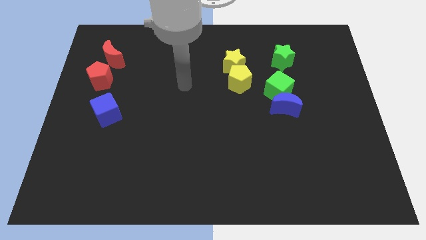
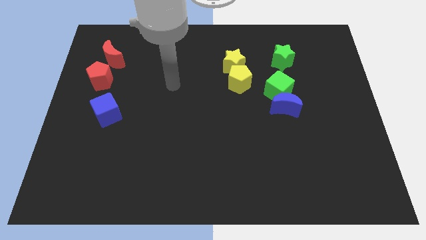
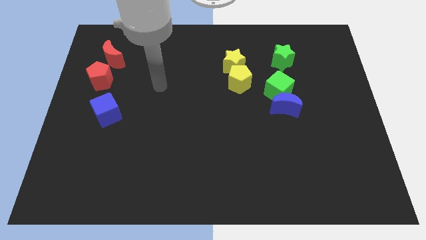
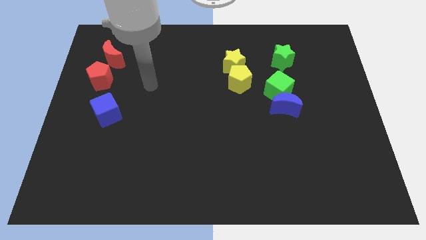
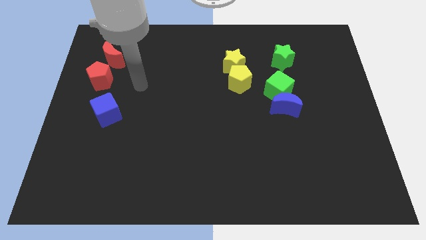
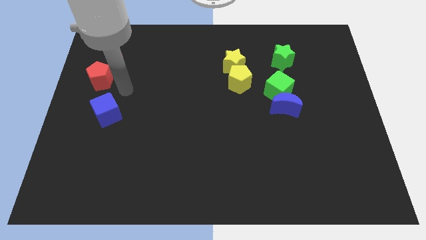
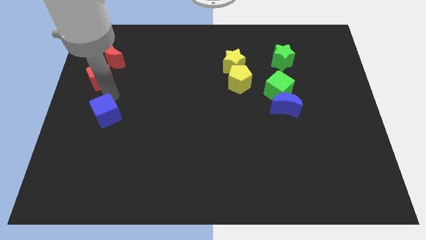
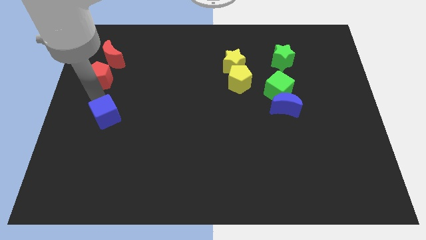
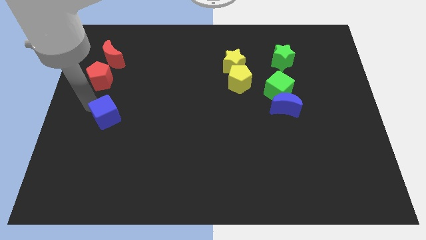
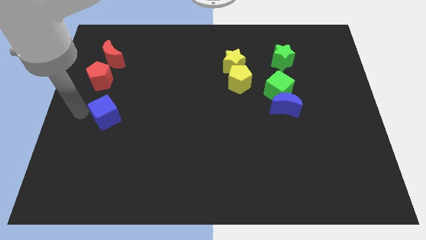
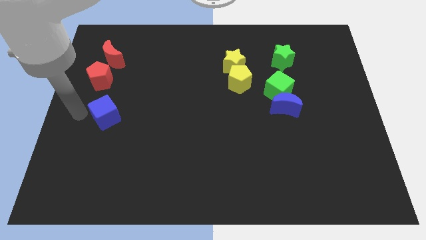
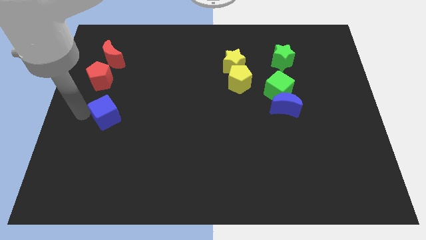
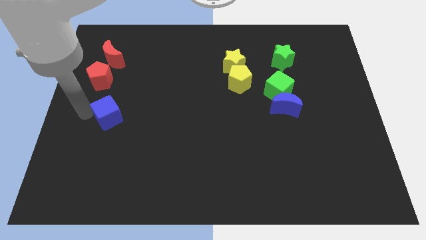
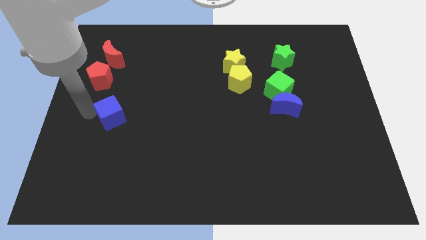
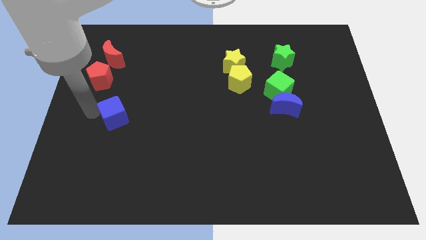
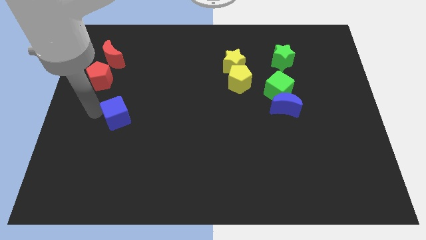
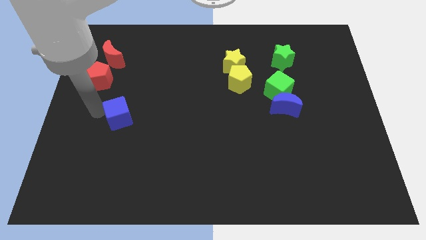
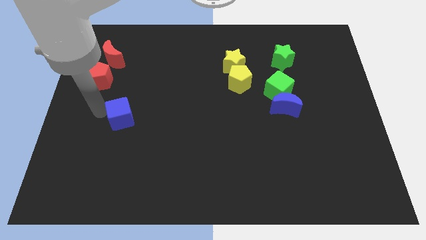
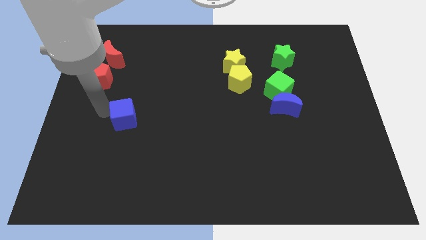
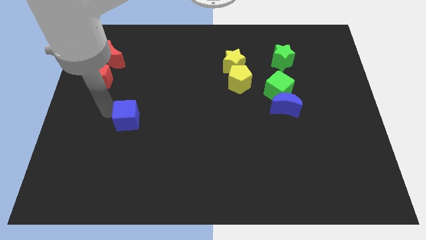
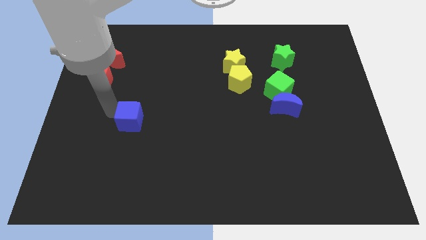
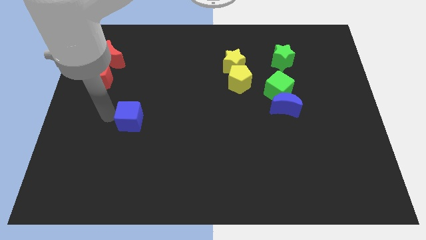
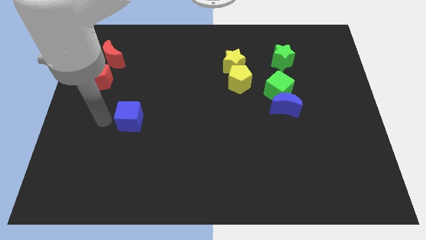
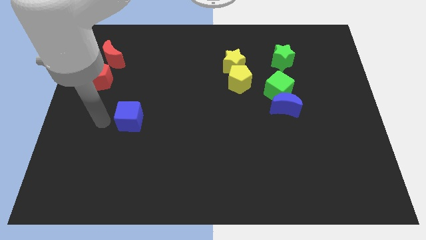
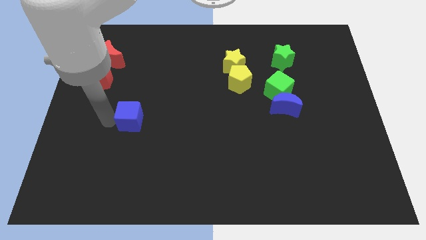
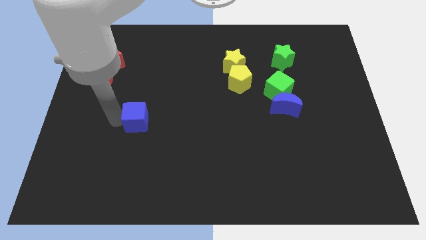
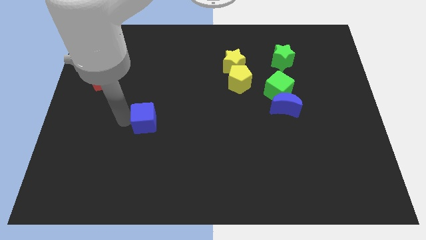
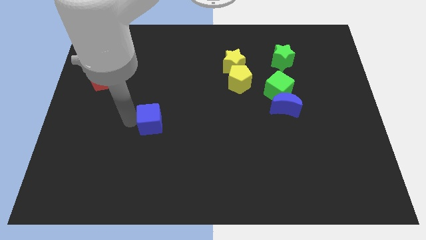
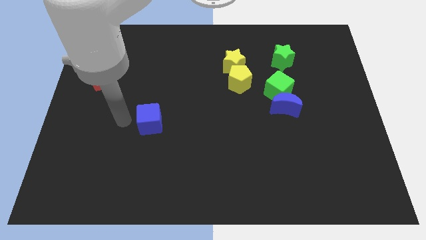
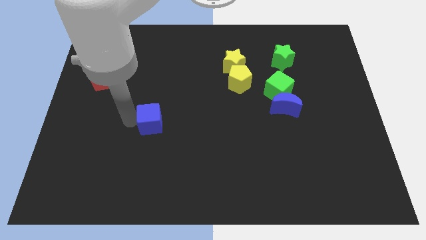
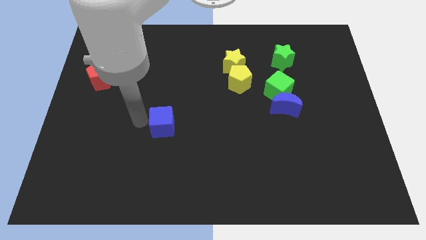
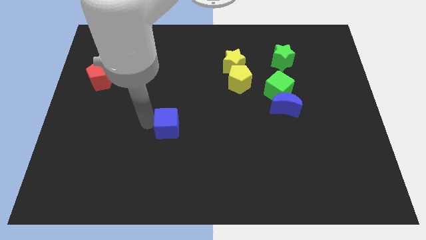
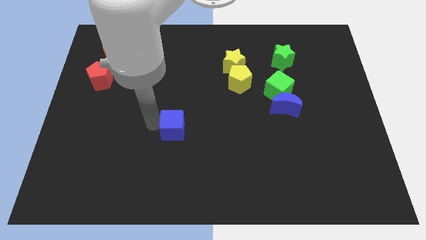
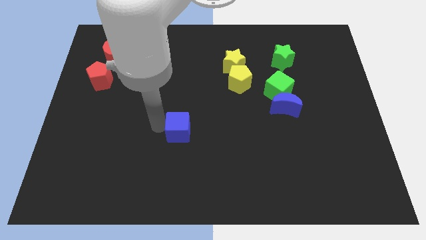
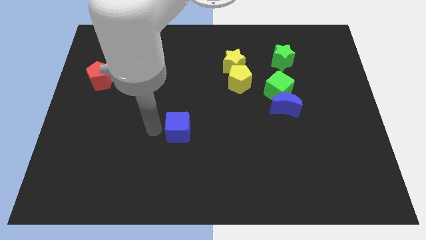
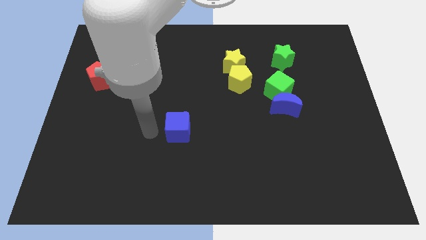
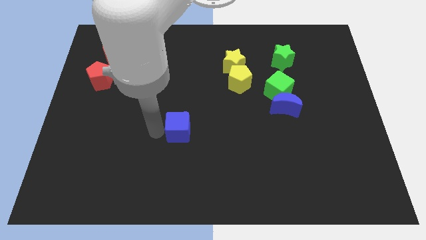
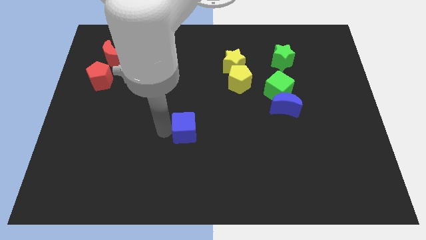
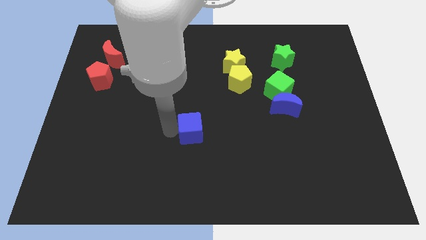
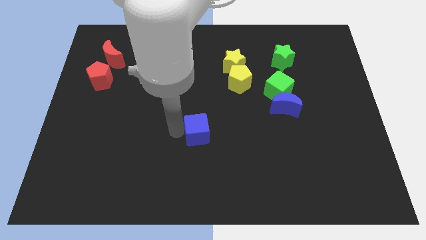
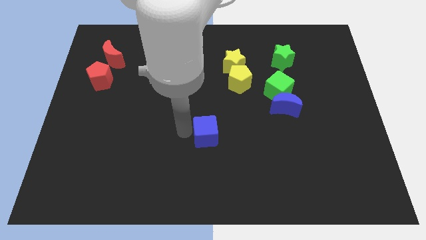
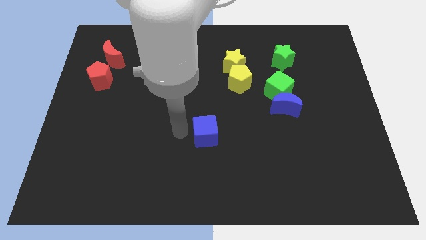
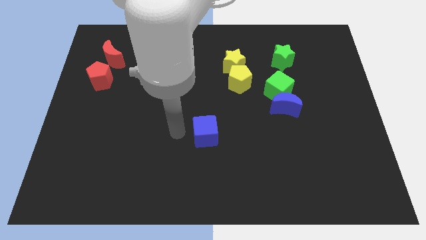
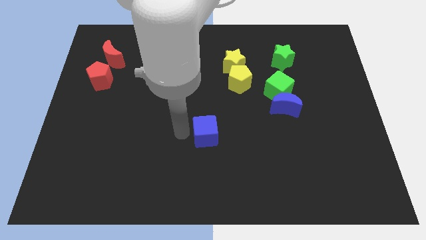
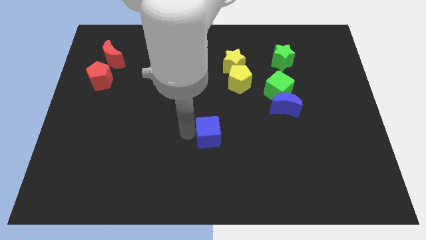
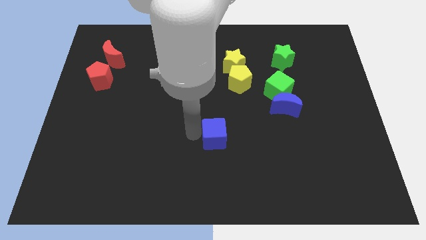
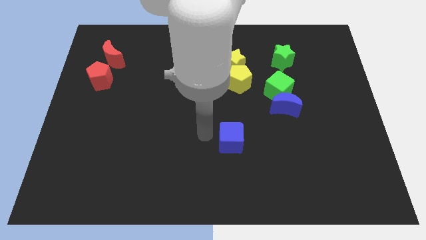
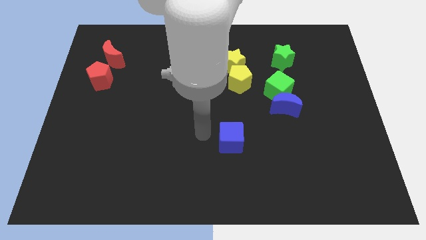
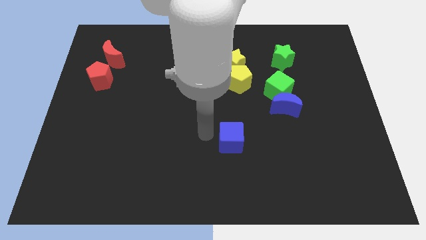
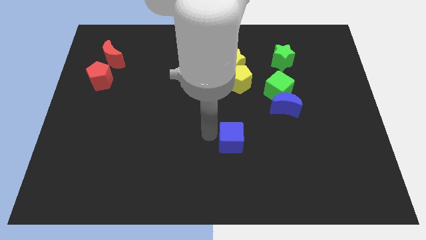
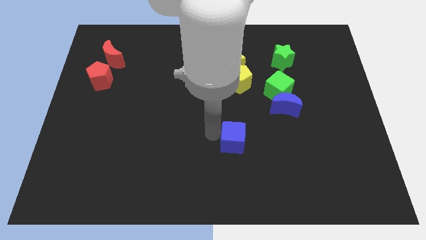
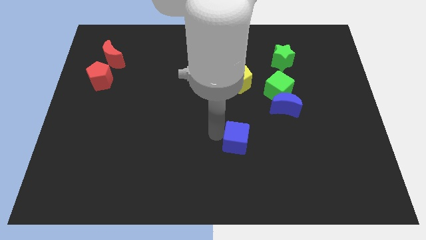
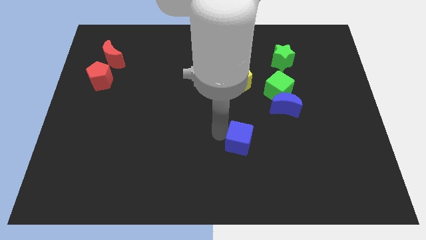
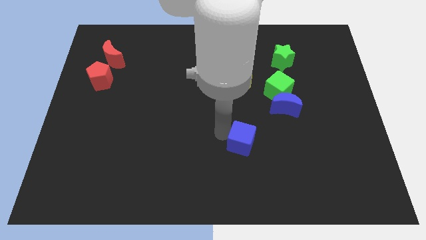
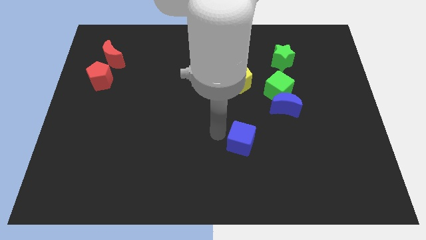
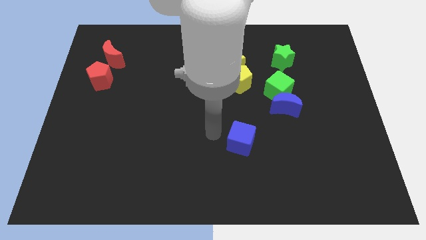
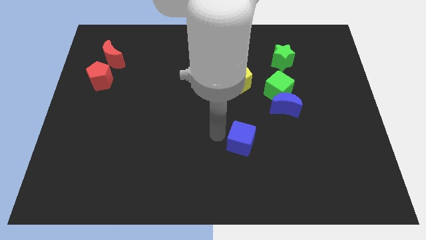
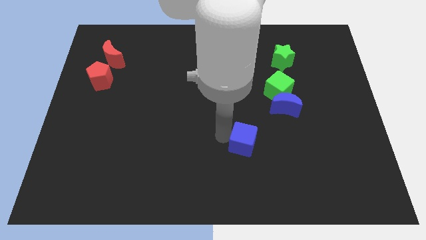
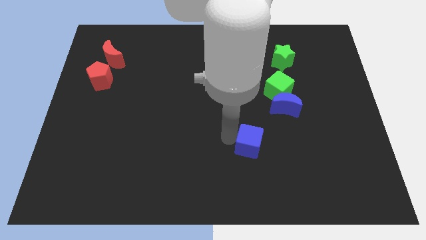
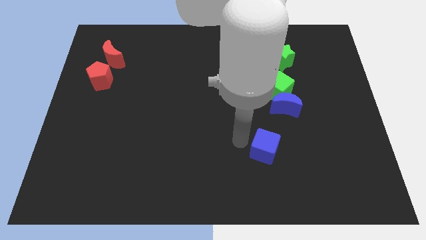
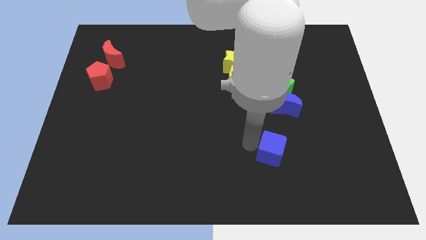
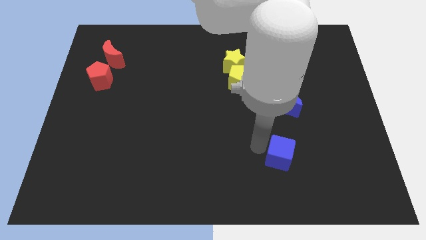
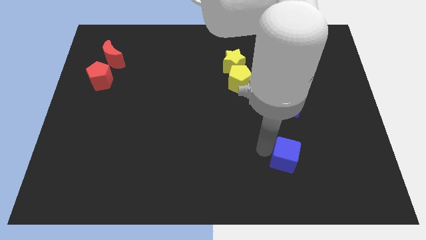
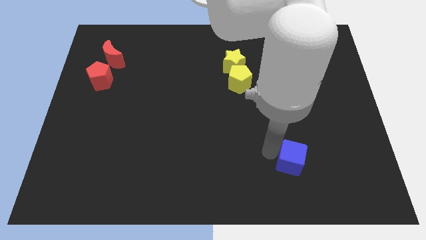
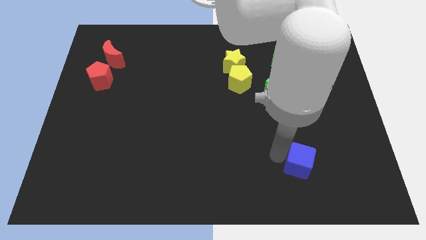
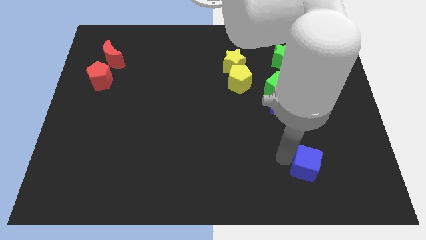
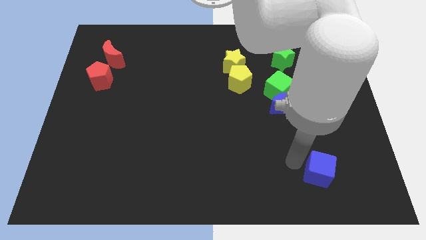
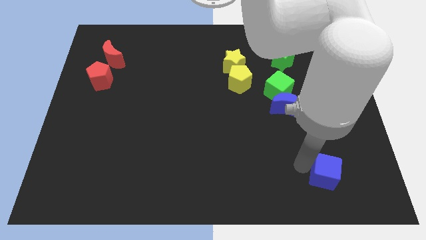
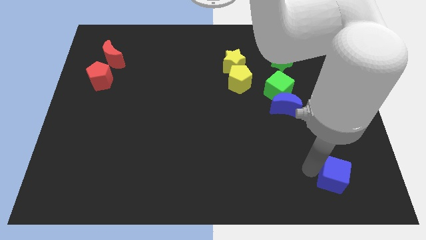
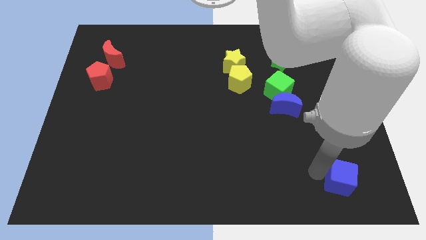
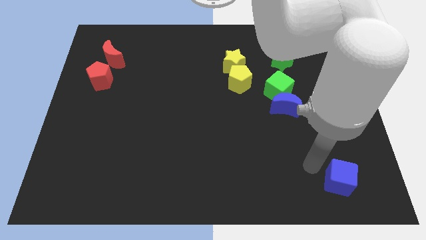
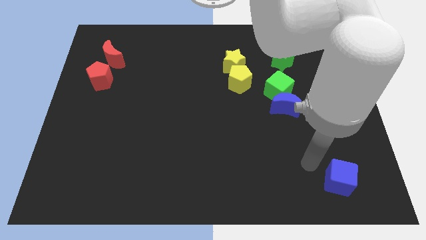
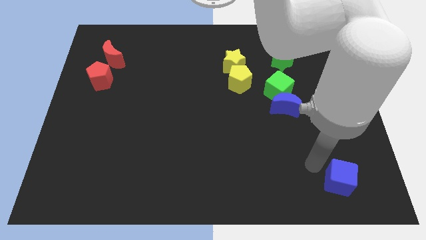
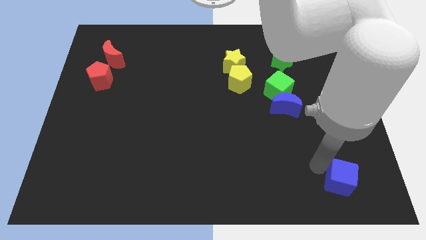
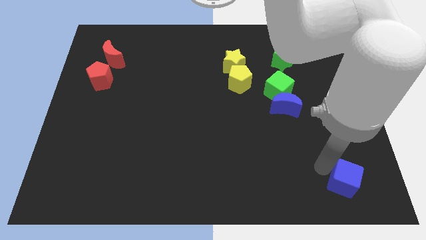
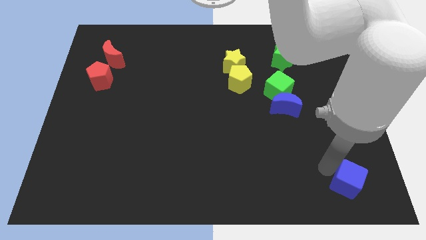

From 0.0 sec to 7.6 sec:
put the blue cube to the bottom right of the board
